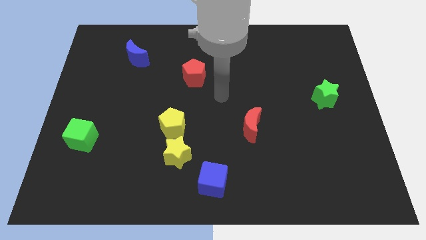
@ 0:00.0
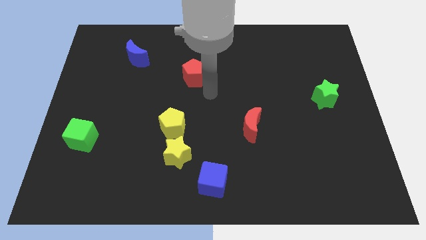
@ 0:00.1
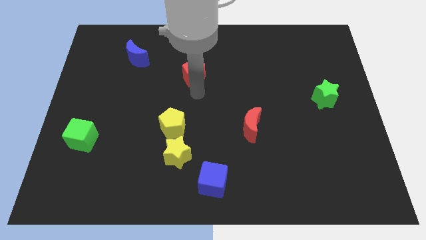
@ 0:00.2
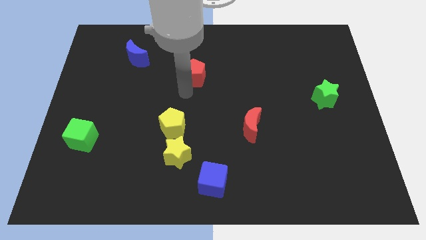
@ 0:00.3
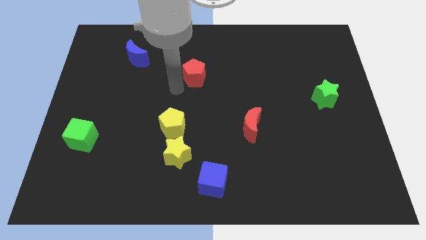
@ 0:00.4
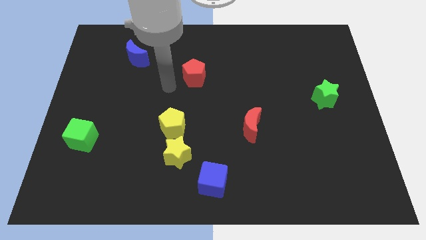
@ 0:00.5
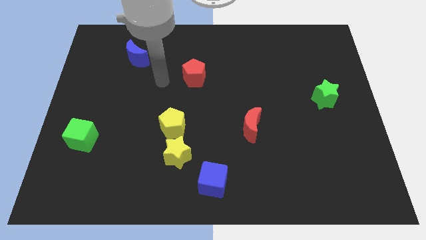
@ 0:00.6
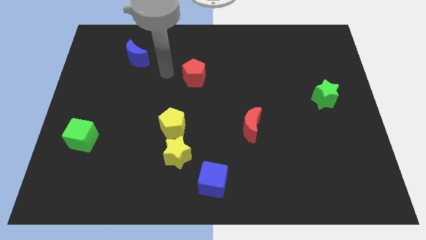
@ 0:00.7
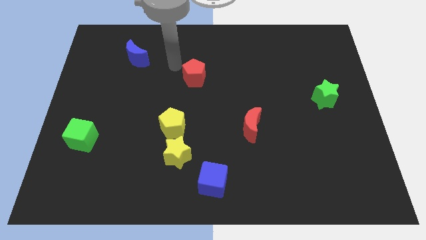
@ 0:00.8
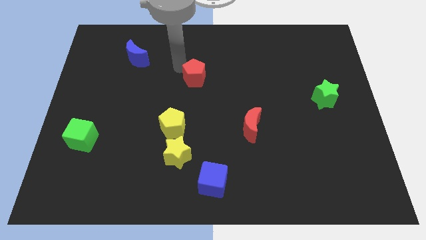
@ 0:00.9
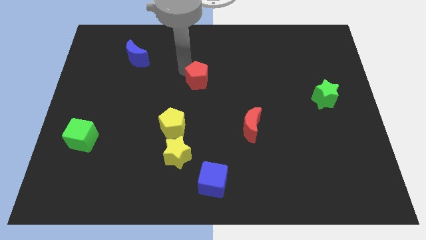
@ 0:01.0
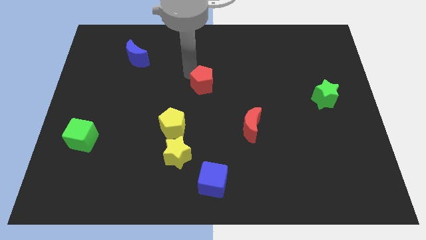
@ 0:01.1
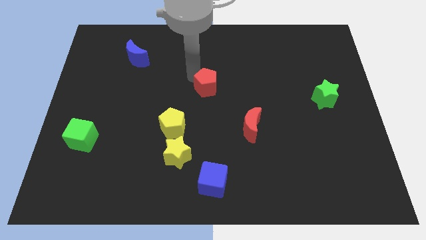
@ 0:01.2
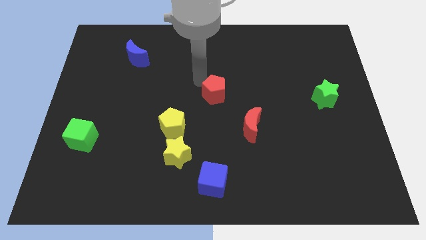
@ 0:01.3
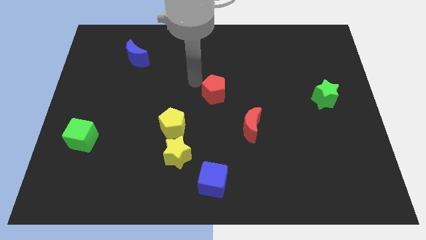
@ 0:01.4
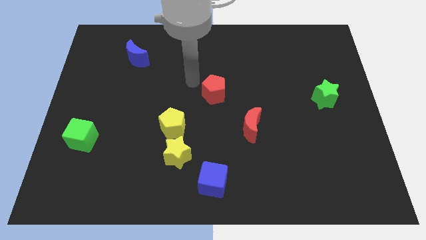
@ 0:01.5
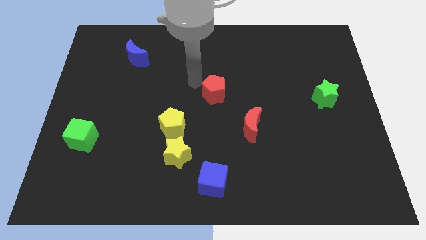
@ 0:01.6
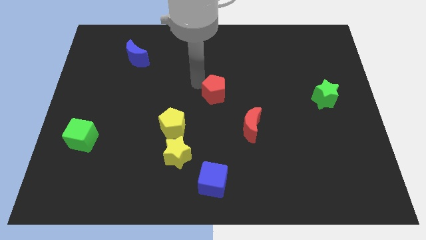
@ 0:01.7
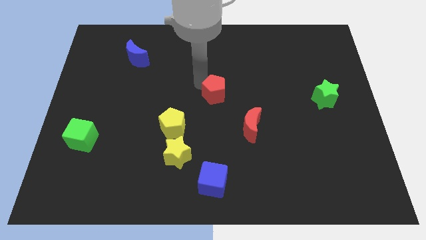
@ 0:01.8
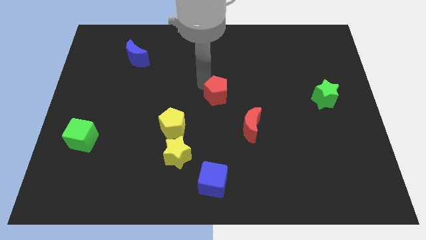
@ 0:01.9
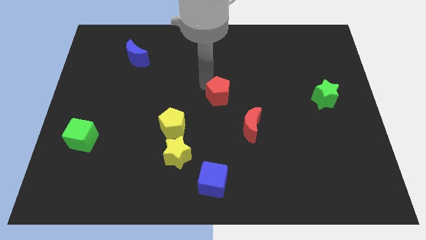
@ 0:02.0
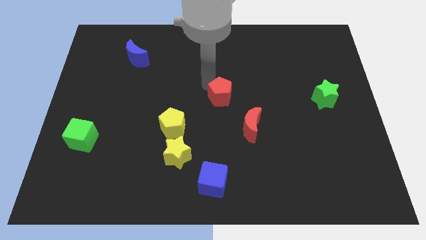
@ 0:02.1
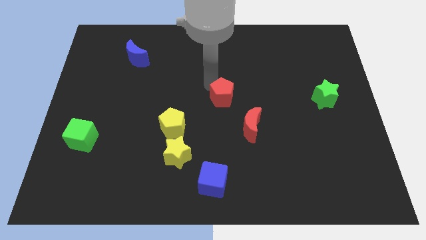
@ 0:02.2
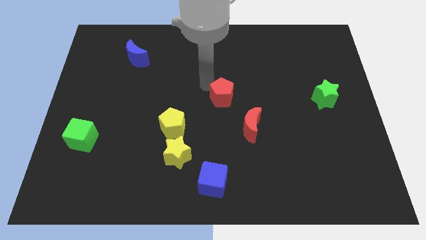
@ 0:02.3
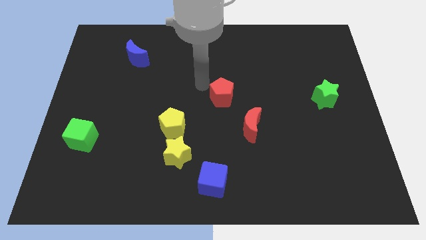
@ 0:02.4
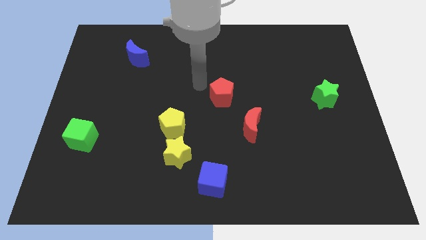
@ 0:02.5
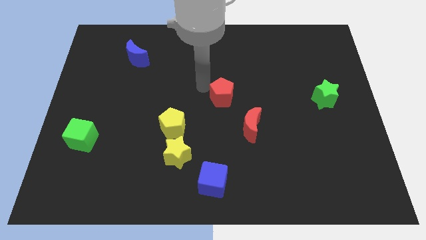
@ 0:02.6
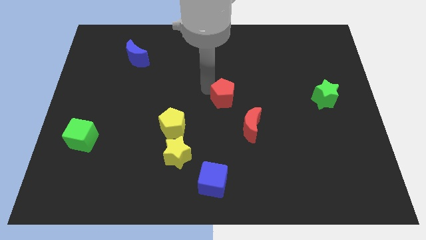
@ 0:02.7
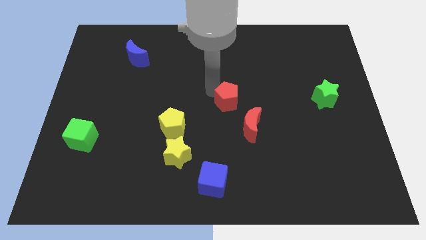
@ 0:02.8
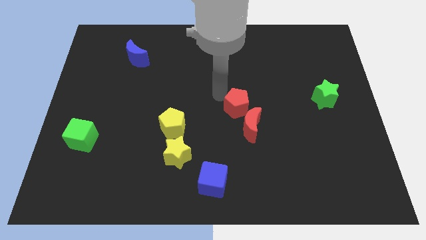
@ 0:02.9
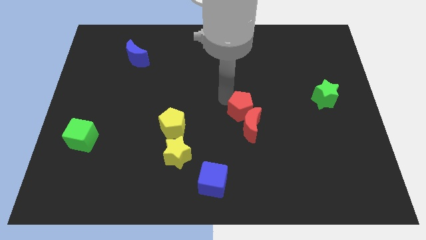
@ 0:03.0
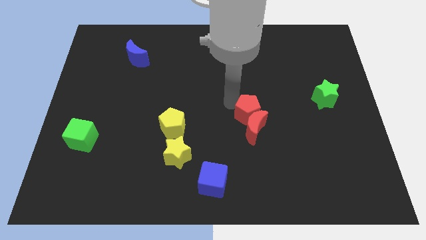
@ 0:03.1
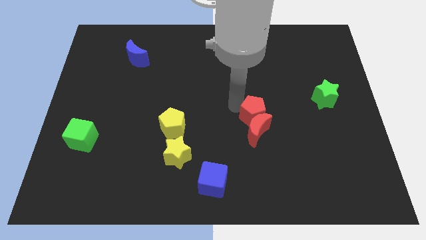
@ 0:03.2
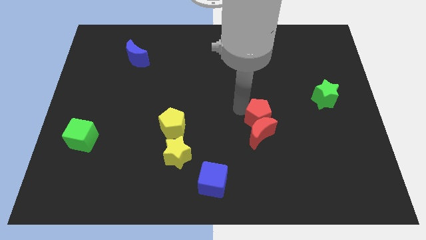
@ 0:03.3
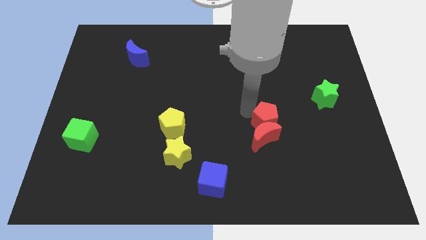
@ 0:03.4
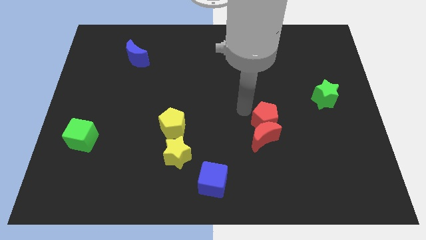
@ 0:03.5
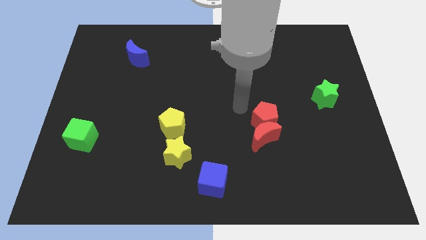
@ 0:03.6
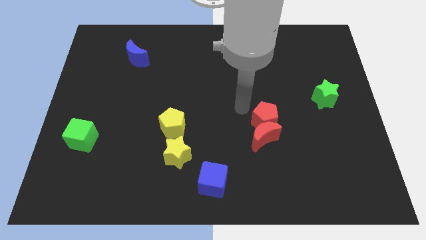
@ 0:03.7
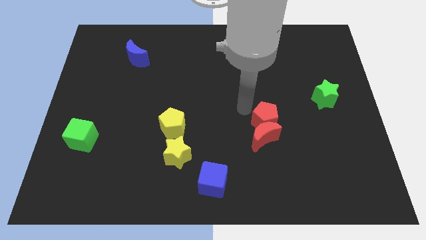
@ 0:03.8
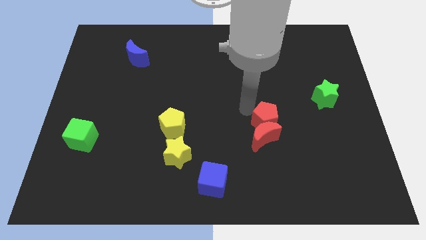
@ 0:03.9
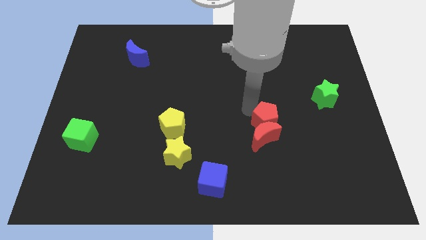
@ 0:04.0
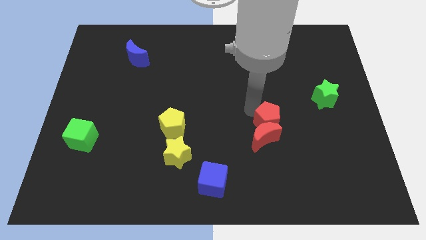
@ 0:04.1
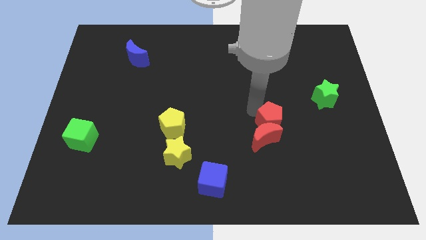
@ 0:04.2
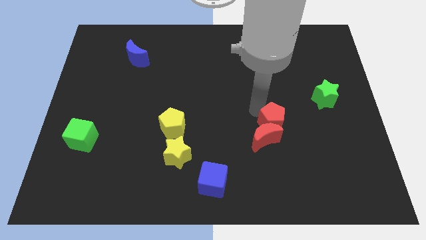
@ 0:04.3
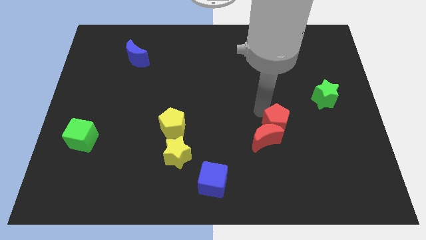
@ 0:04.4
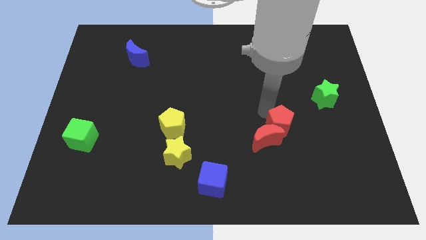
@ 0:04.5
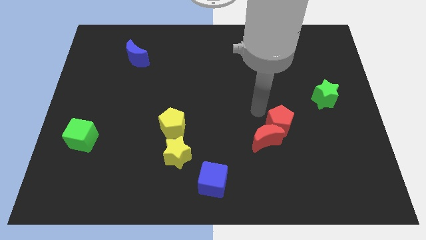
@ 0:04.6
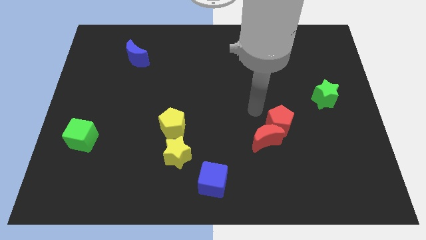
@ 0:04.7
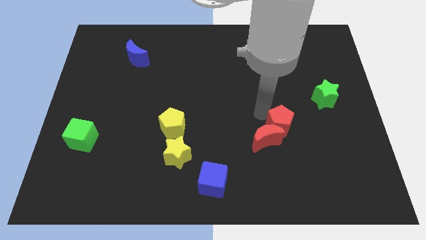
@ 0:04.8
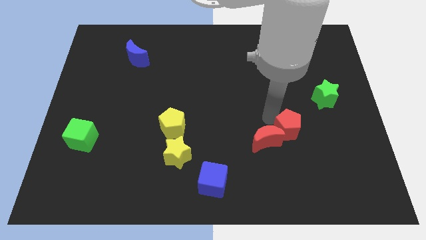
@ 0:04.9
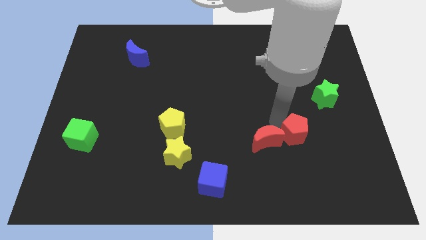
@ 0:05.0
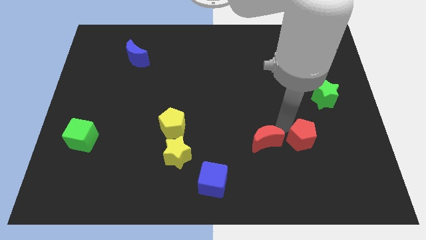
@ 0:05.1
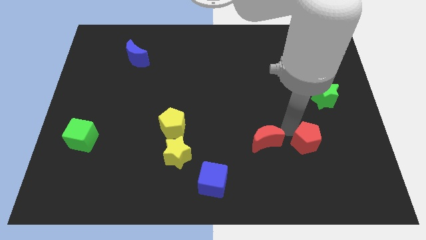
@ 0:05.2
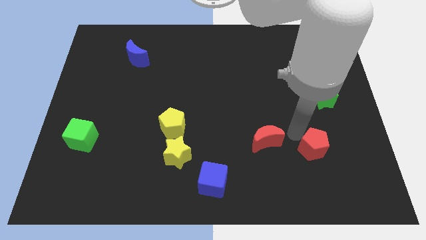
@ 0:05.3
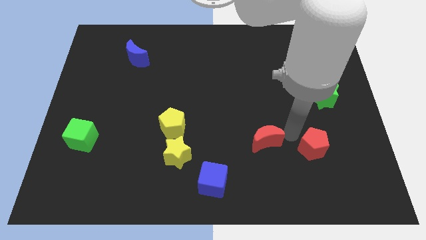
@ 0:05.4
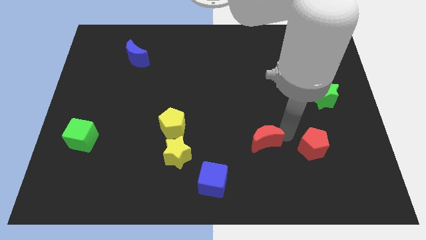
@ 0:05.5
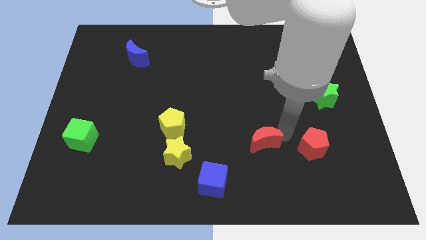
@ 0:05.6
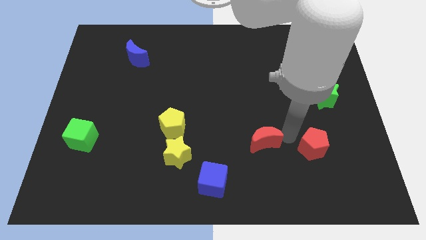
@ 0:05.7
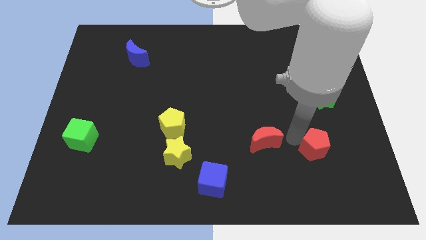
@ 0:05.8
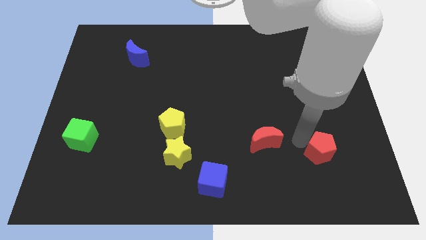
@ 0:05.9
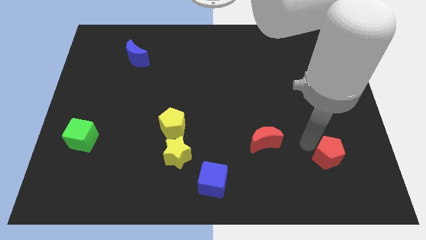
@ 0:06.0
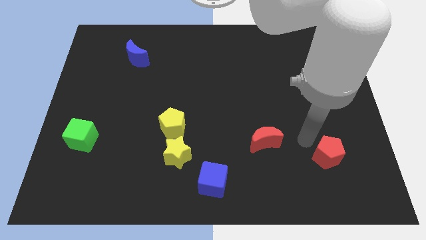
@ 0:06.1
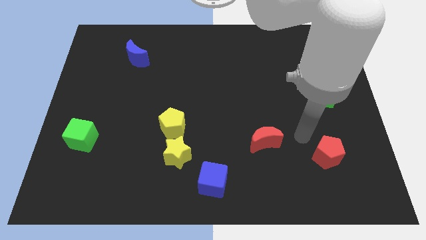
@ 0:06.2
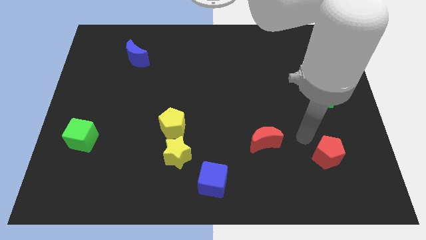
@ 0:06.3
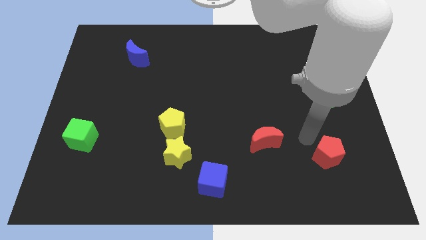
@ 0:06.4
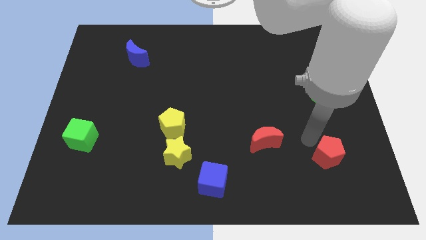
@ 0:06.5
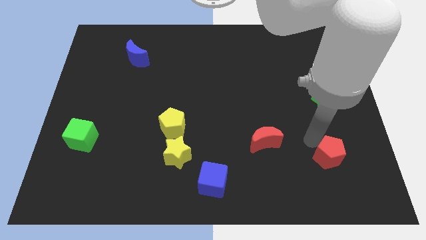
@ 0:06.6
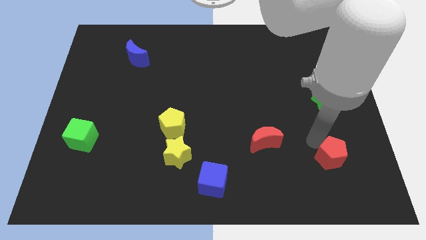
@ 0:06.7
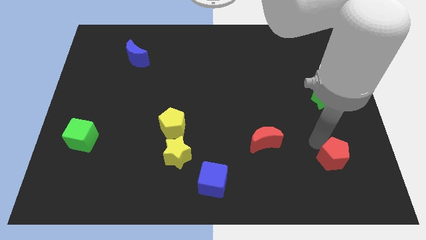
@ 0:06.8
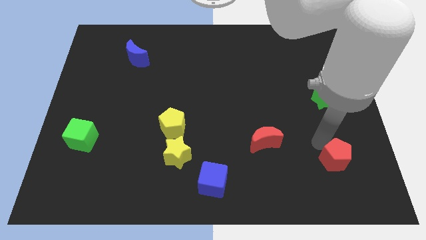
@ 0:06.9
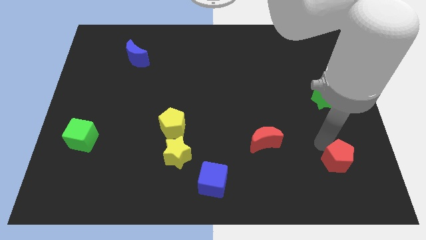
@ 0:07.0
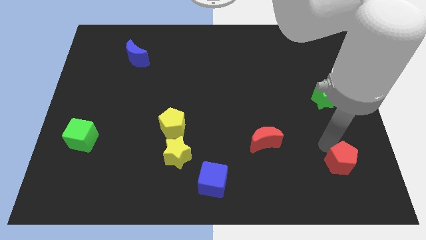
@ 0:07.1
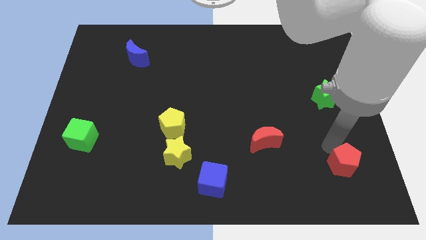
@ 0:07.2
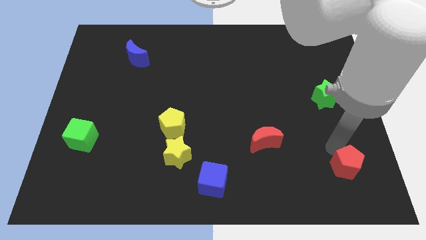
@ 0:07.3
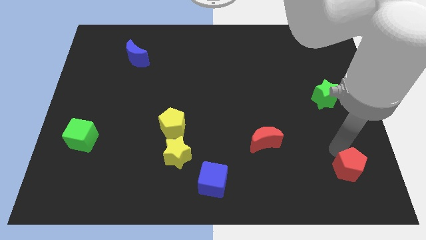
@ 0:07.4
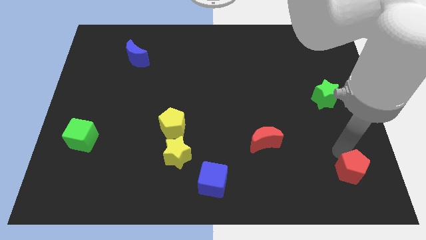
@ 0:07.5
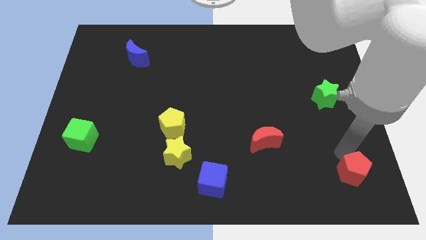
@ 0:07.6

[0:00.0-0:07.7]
slide the red pentagon to the lower right corner
